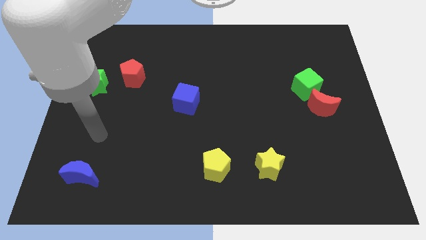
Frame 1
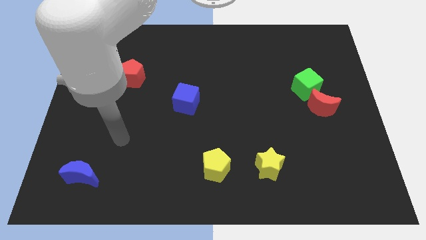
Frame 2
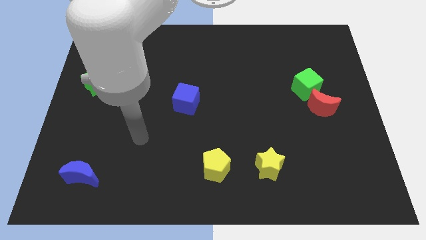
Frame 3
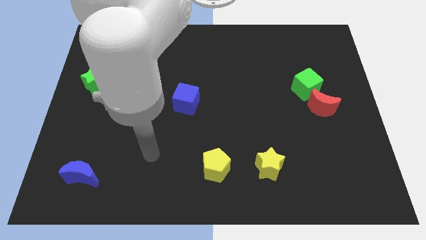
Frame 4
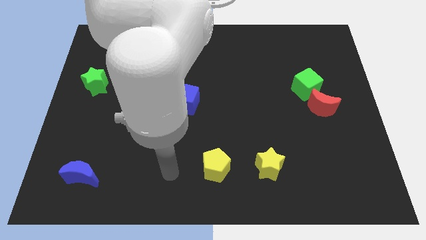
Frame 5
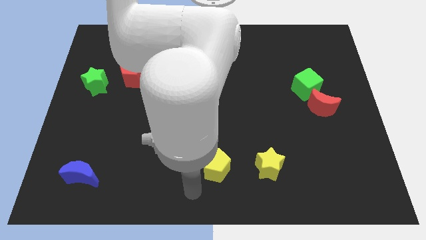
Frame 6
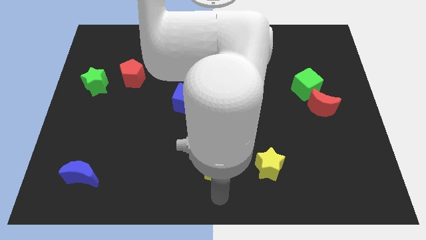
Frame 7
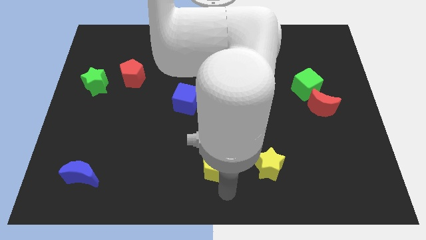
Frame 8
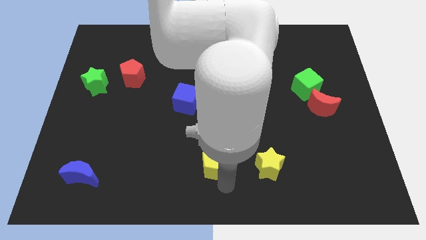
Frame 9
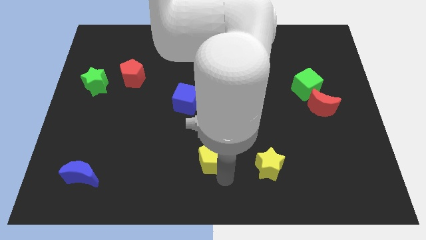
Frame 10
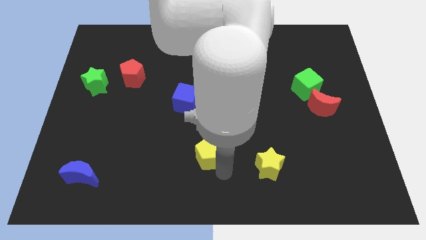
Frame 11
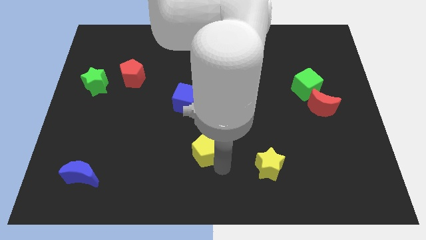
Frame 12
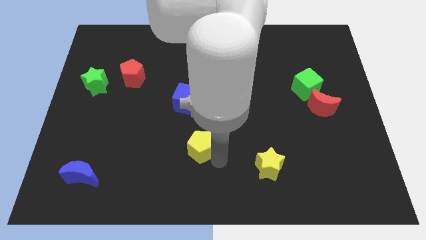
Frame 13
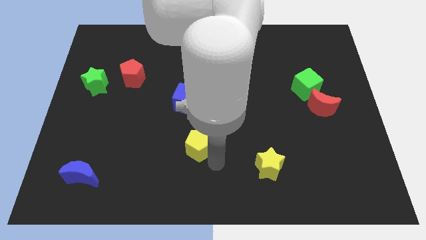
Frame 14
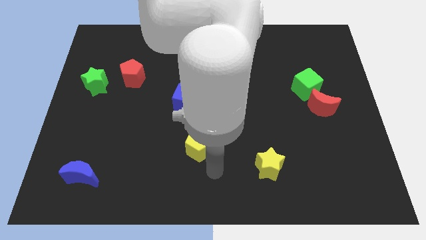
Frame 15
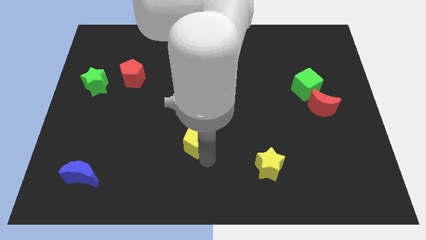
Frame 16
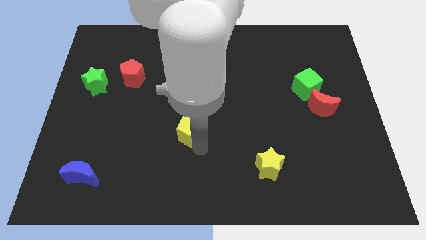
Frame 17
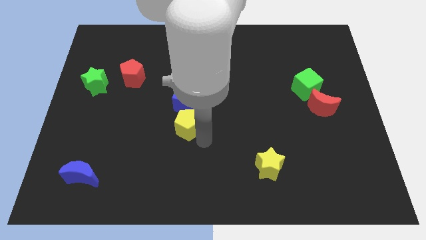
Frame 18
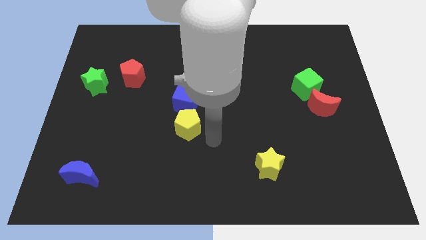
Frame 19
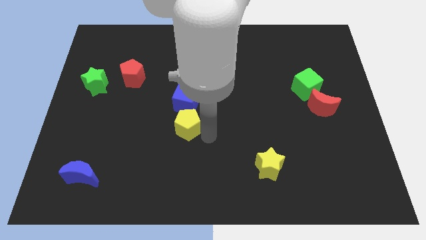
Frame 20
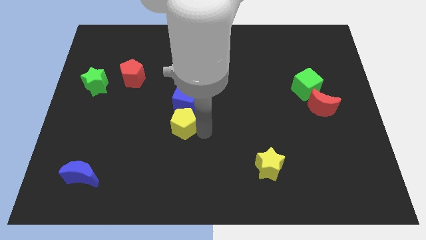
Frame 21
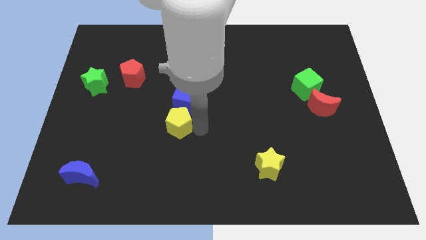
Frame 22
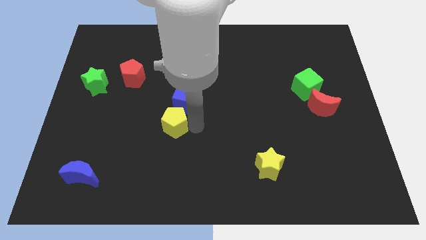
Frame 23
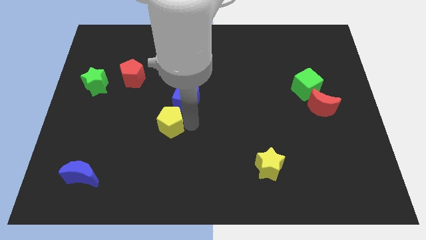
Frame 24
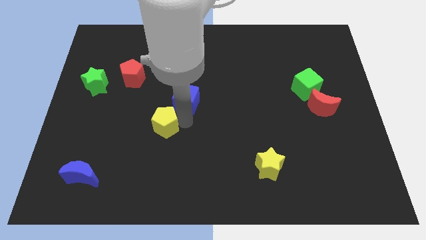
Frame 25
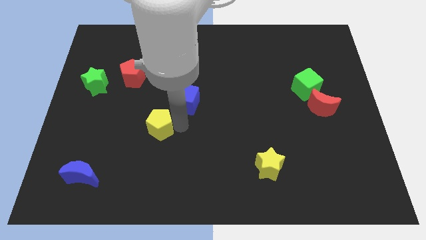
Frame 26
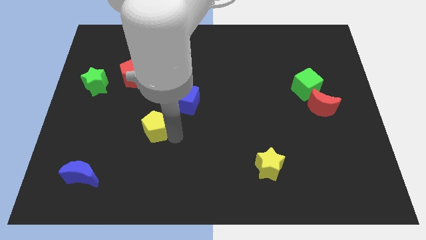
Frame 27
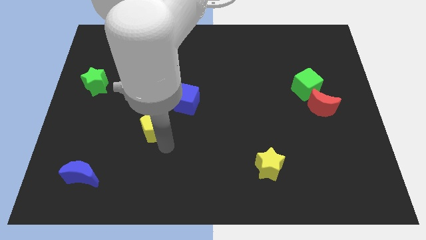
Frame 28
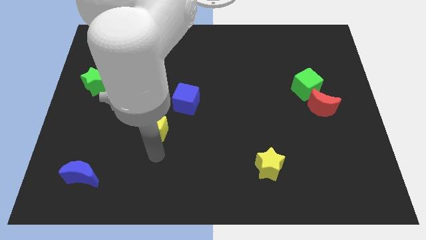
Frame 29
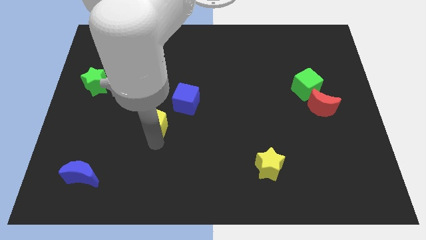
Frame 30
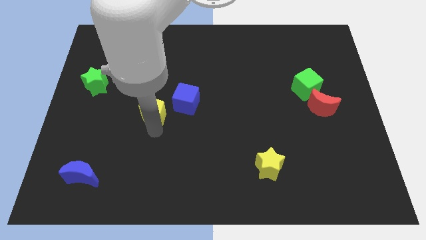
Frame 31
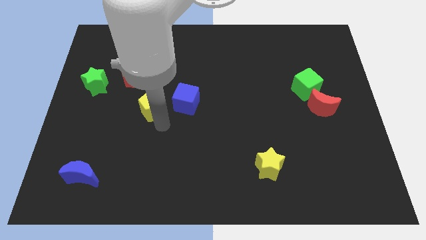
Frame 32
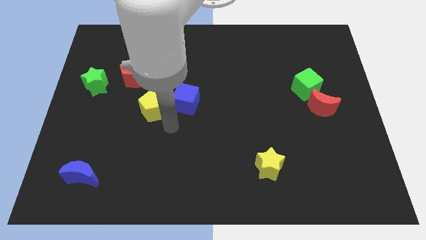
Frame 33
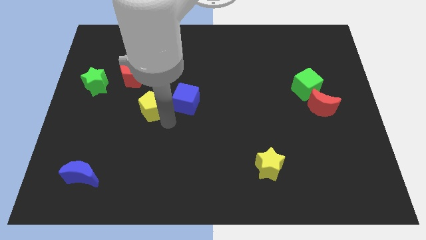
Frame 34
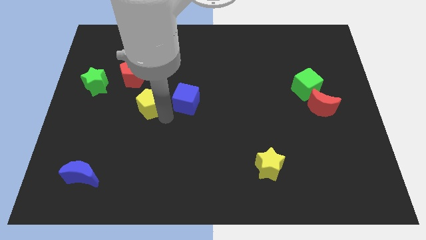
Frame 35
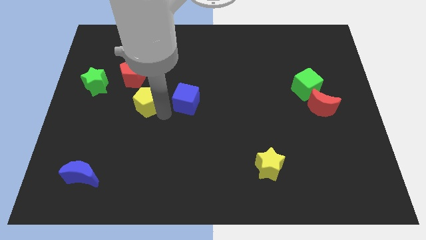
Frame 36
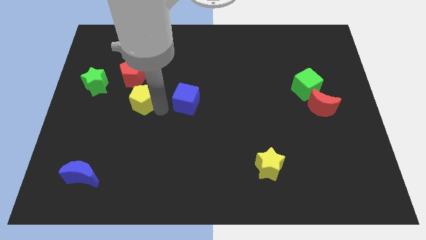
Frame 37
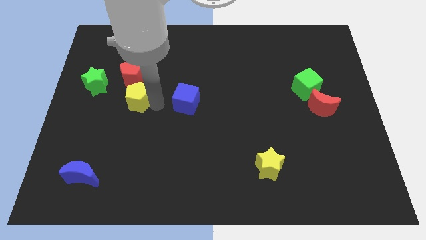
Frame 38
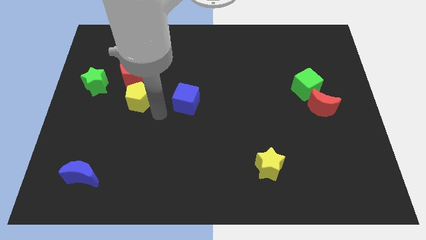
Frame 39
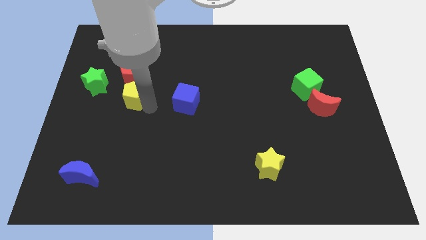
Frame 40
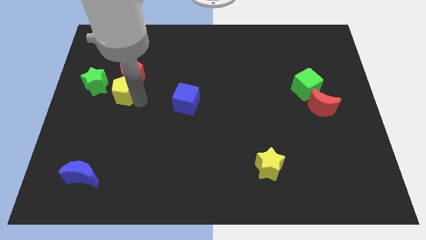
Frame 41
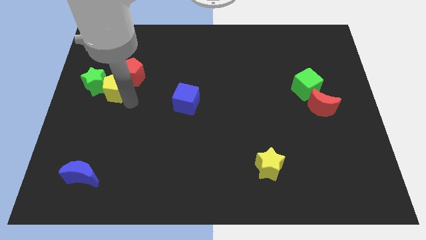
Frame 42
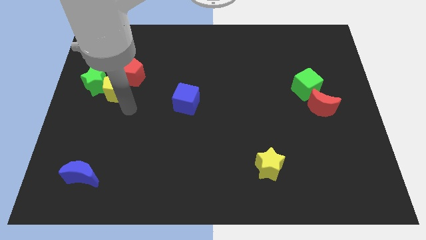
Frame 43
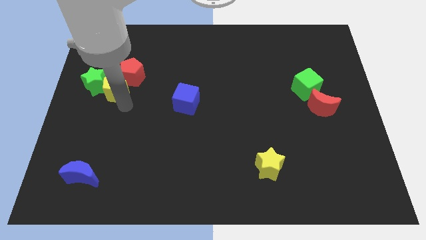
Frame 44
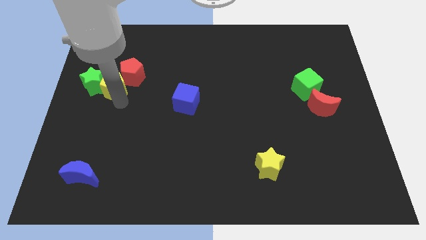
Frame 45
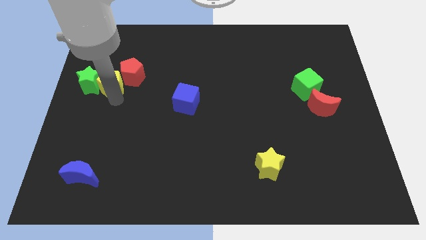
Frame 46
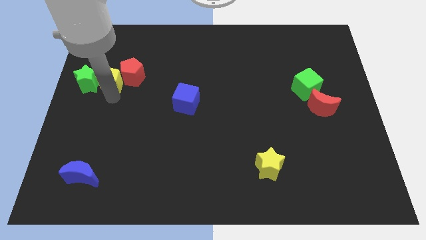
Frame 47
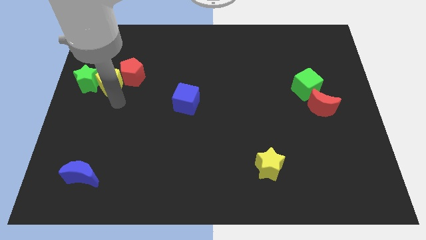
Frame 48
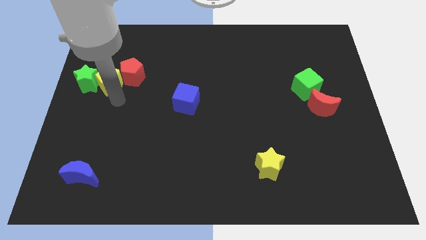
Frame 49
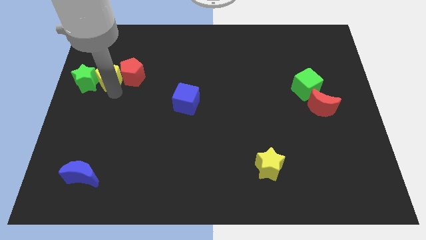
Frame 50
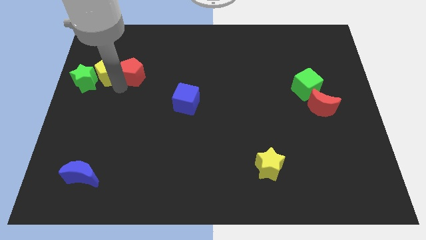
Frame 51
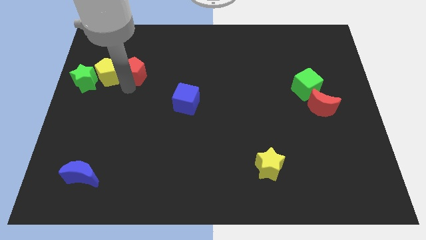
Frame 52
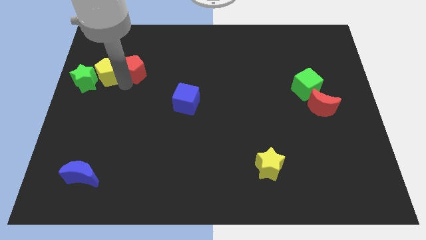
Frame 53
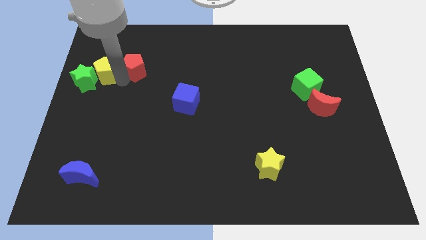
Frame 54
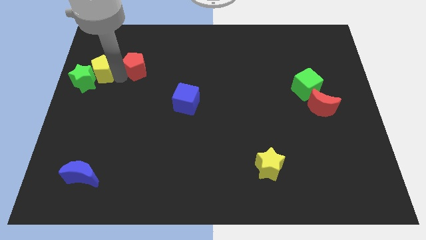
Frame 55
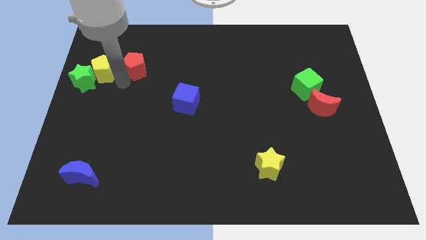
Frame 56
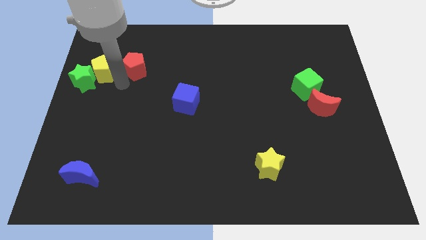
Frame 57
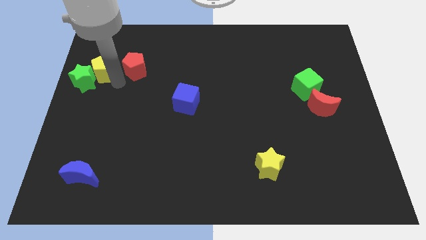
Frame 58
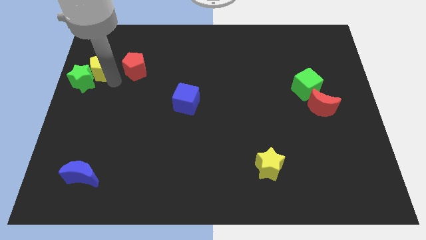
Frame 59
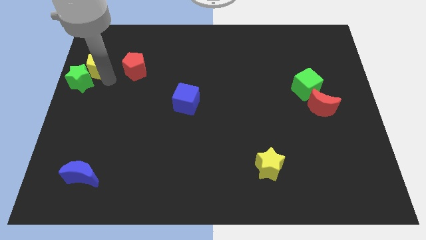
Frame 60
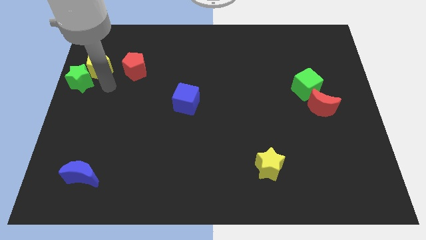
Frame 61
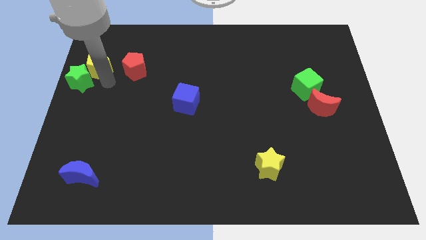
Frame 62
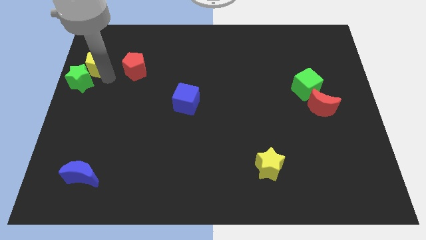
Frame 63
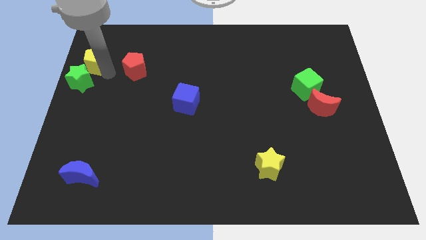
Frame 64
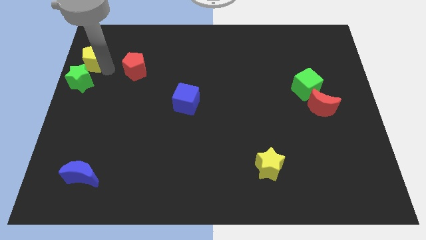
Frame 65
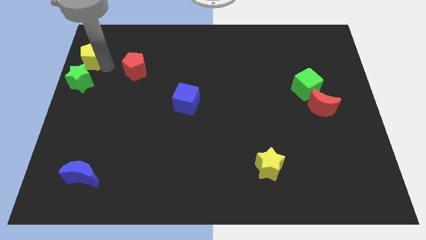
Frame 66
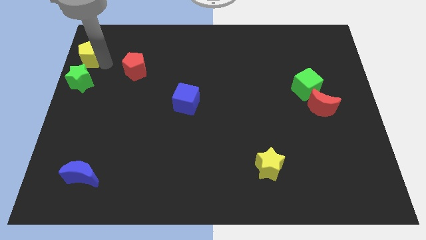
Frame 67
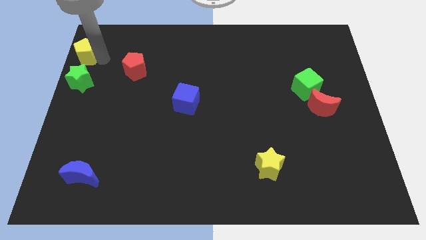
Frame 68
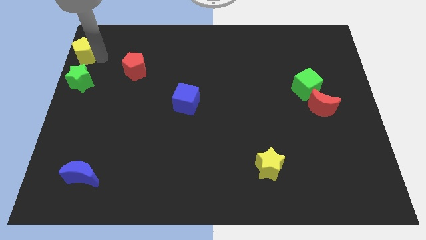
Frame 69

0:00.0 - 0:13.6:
push the yellow pentagon to the top left
